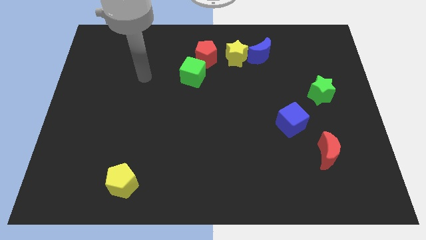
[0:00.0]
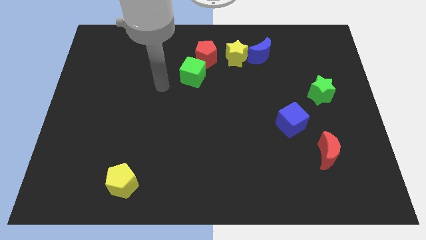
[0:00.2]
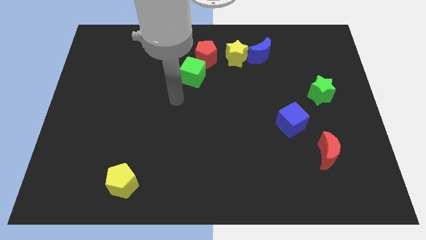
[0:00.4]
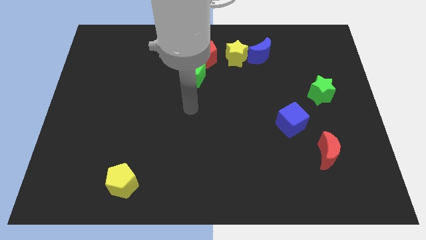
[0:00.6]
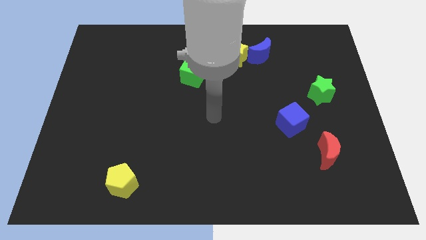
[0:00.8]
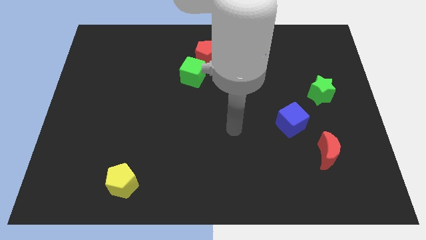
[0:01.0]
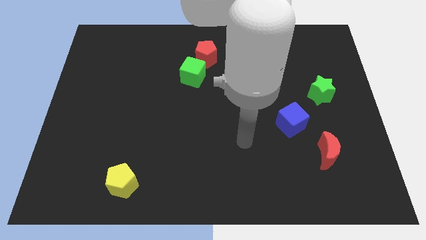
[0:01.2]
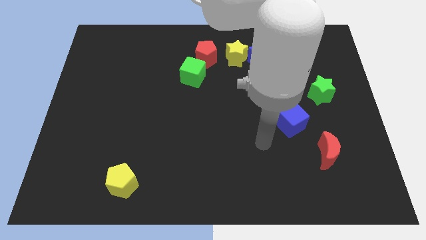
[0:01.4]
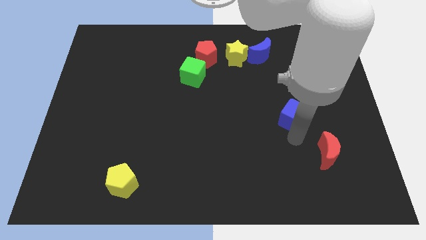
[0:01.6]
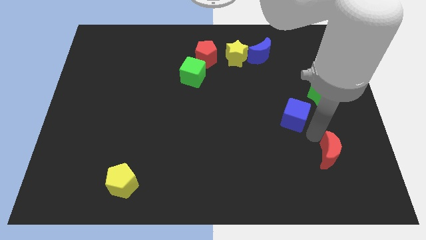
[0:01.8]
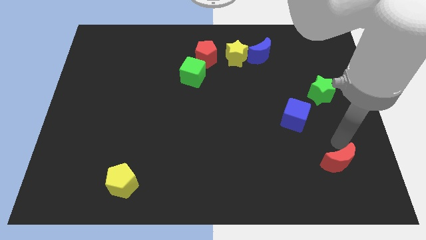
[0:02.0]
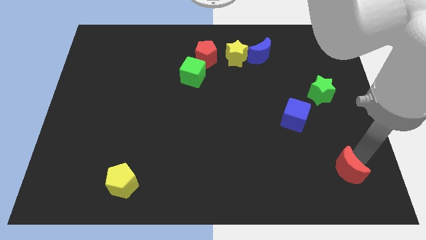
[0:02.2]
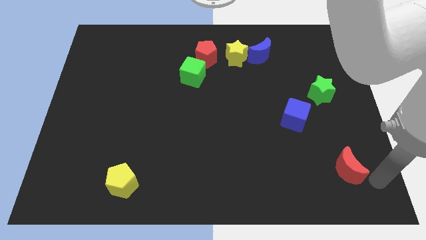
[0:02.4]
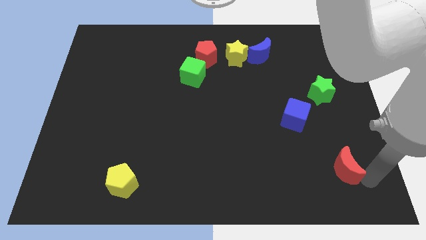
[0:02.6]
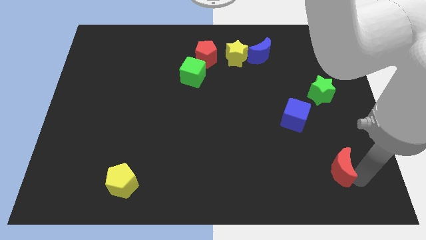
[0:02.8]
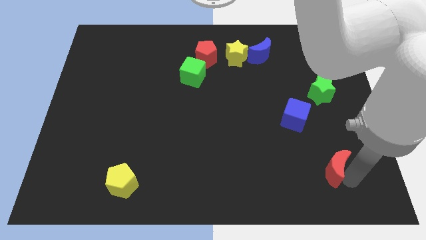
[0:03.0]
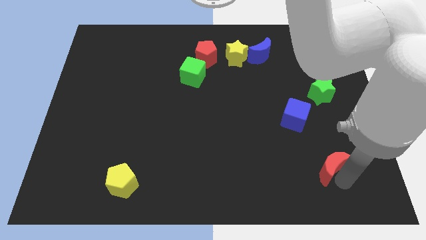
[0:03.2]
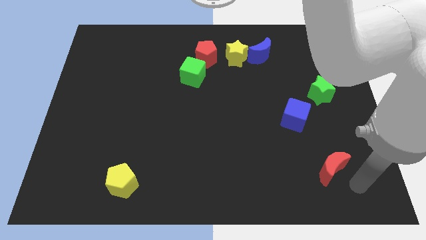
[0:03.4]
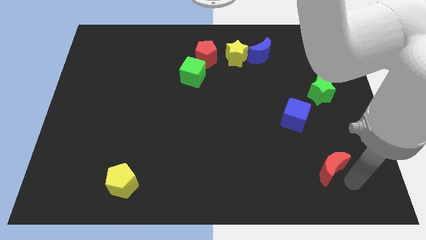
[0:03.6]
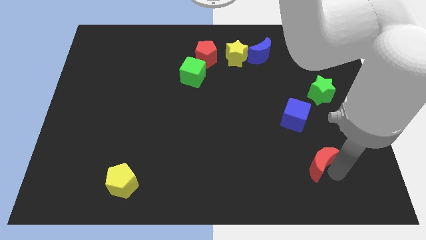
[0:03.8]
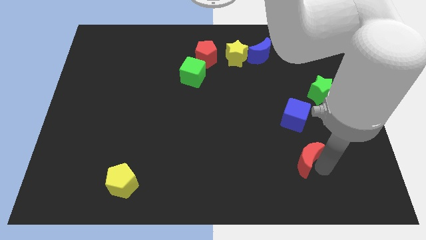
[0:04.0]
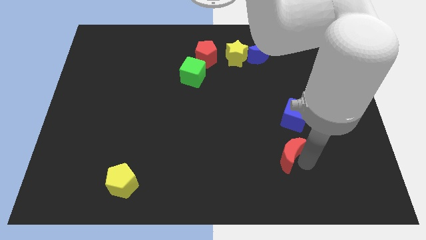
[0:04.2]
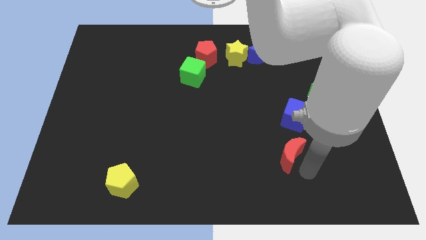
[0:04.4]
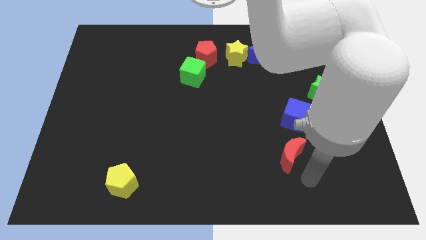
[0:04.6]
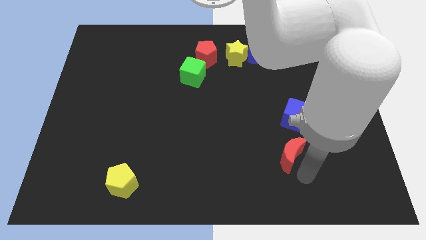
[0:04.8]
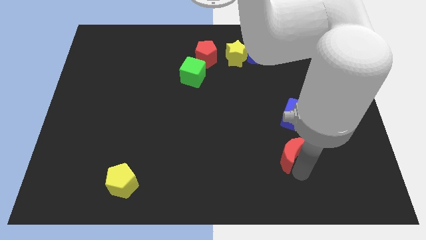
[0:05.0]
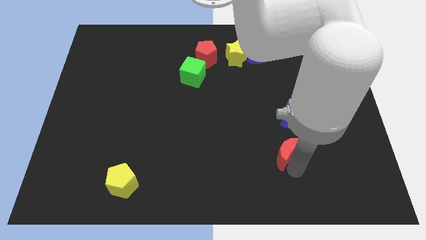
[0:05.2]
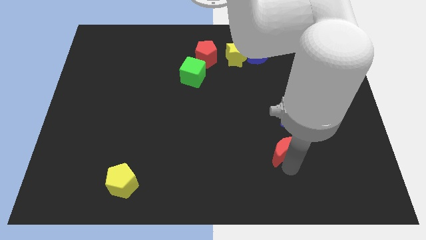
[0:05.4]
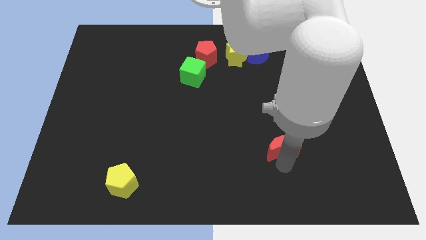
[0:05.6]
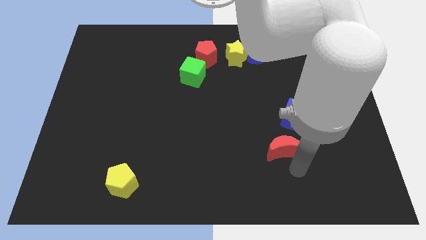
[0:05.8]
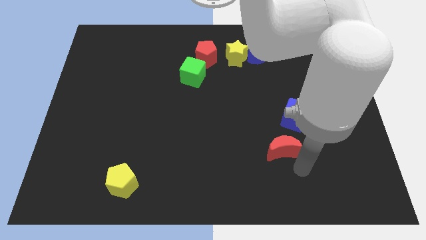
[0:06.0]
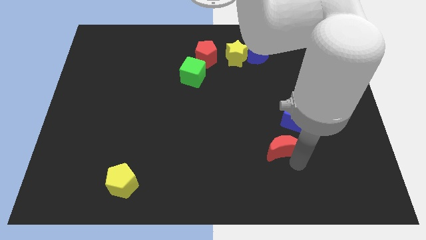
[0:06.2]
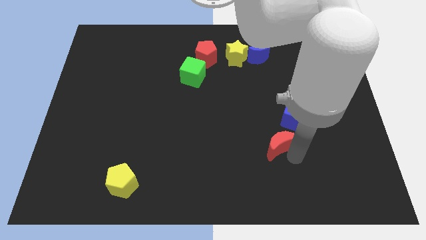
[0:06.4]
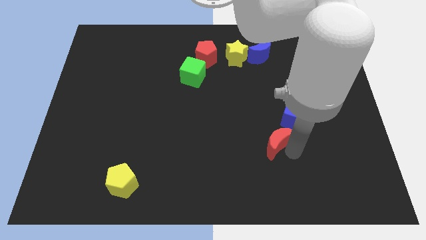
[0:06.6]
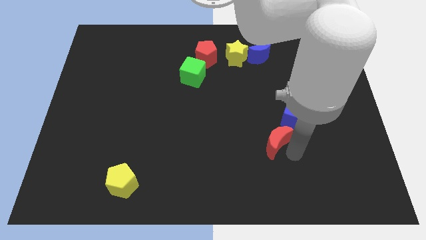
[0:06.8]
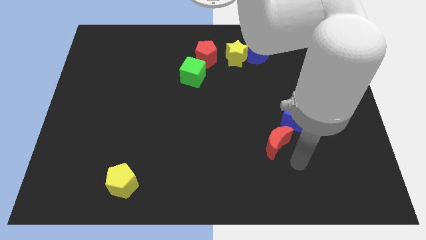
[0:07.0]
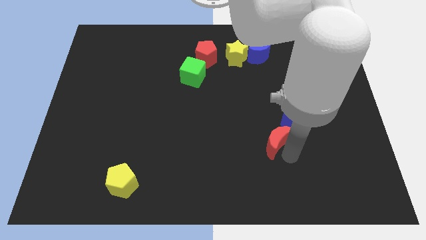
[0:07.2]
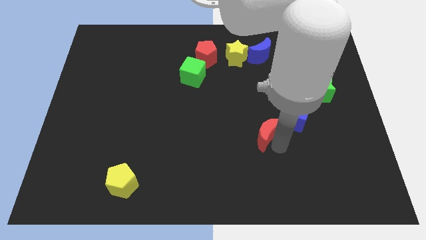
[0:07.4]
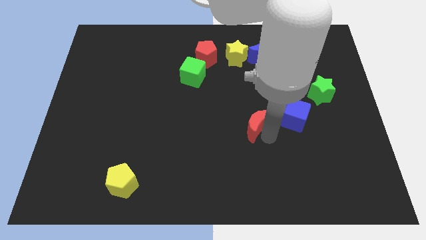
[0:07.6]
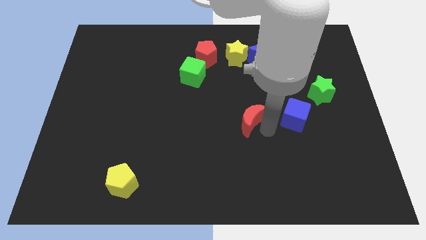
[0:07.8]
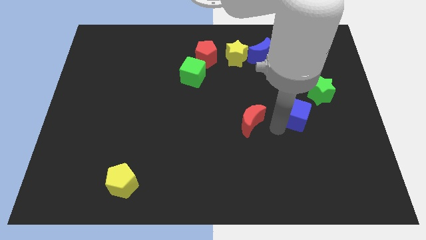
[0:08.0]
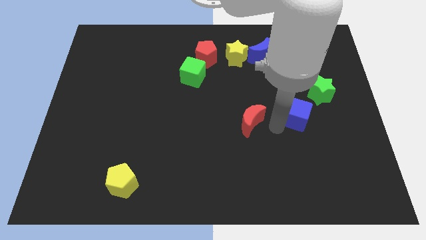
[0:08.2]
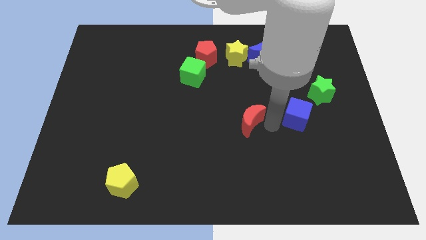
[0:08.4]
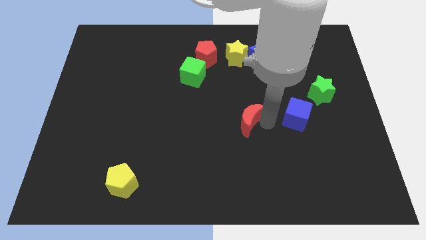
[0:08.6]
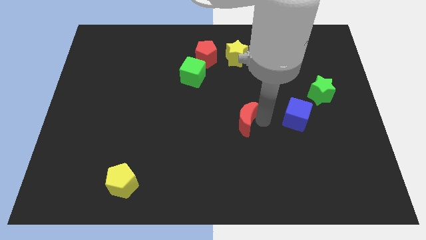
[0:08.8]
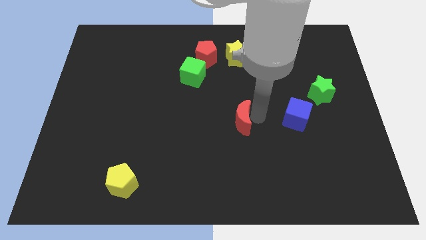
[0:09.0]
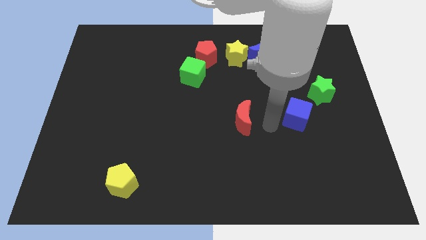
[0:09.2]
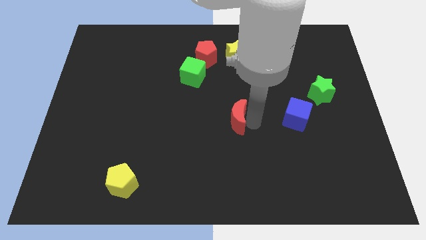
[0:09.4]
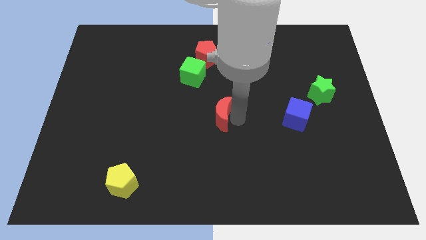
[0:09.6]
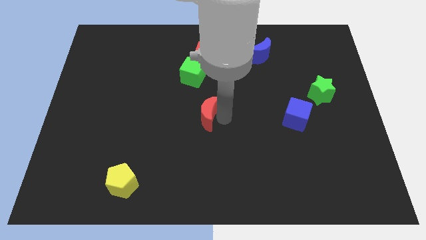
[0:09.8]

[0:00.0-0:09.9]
put the red moon below the green cube

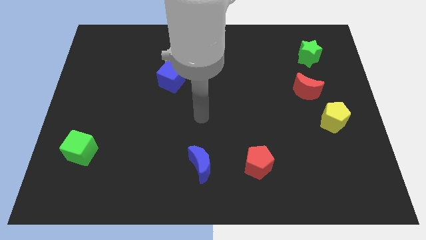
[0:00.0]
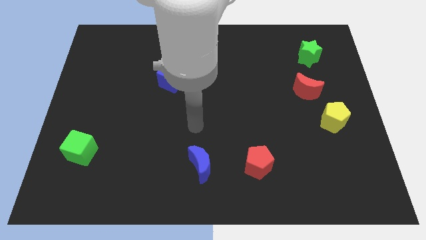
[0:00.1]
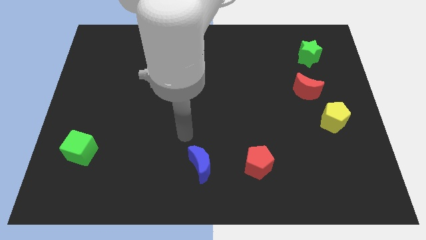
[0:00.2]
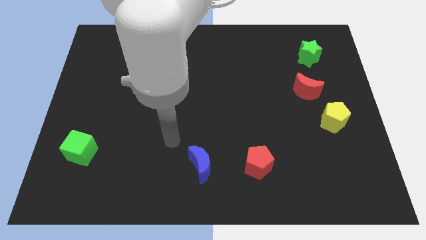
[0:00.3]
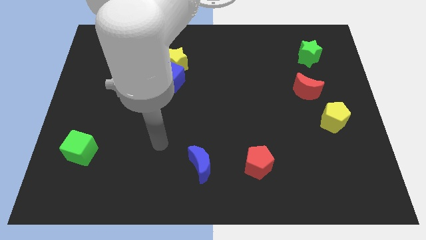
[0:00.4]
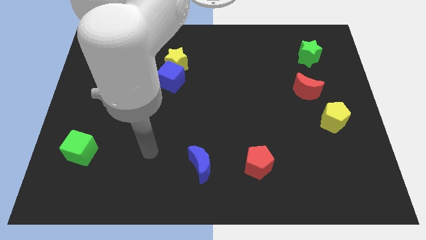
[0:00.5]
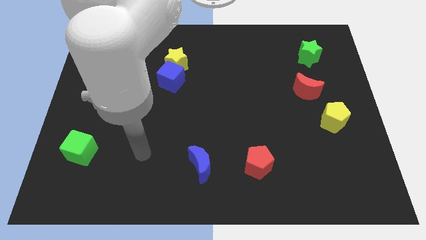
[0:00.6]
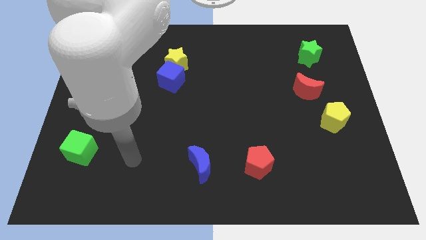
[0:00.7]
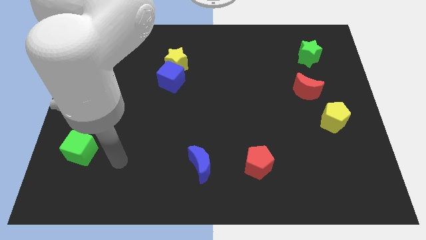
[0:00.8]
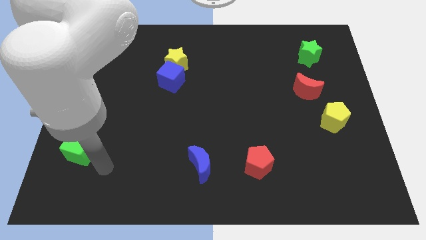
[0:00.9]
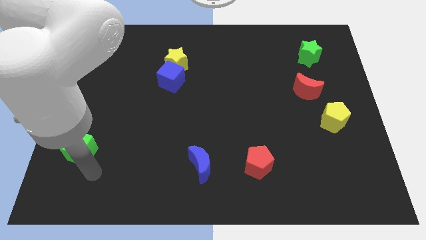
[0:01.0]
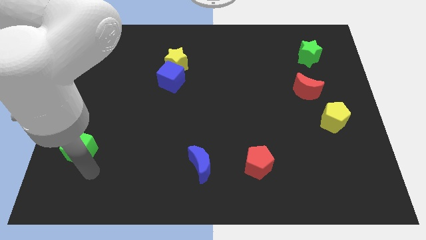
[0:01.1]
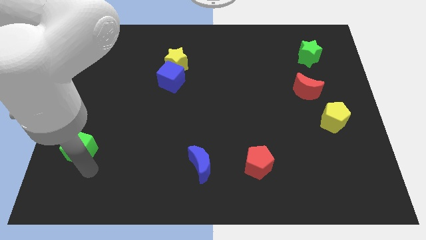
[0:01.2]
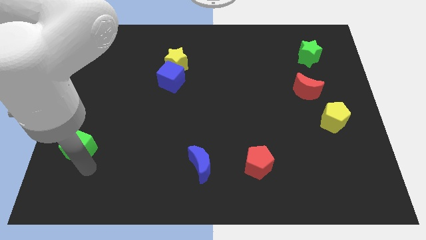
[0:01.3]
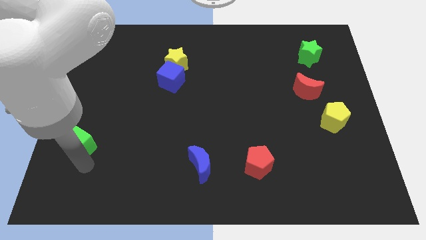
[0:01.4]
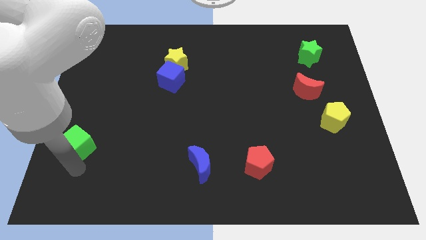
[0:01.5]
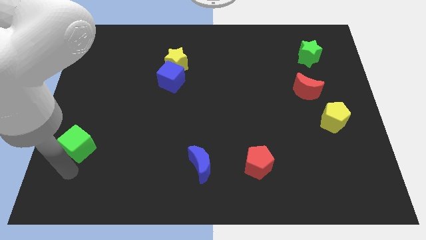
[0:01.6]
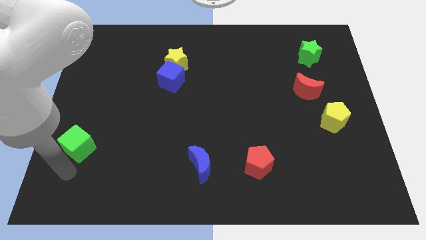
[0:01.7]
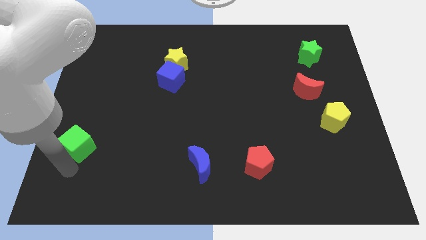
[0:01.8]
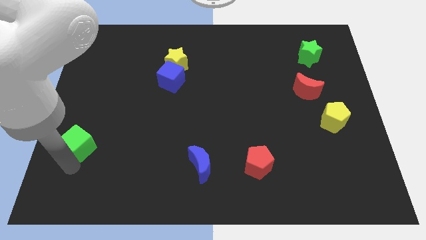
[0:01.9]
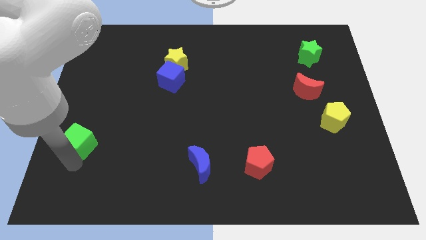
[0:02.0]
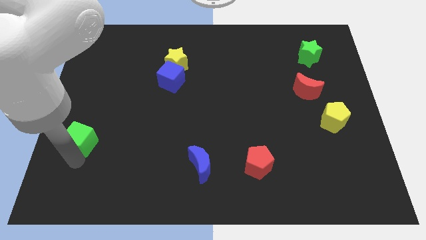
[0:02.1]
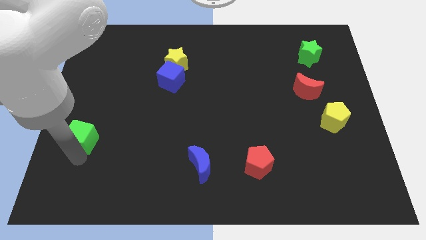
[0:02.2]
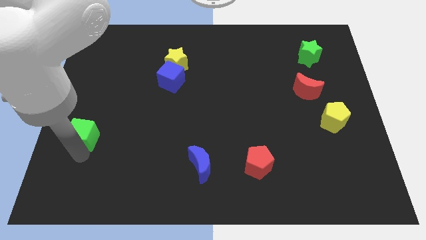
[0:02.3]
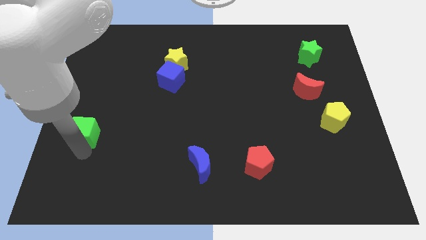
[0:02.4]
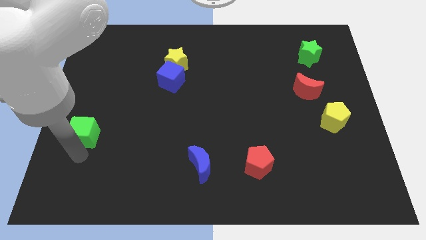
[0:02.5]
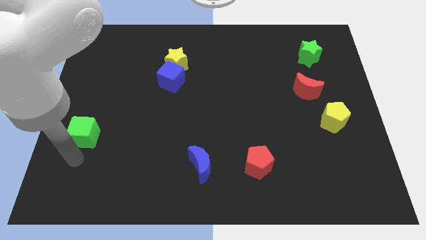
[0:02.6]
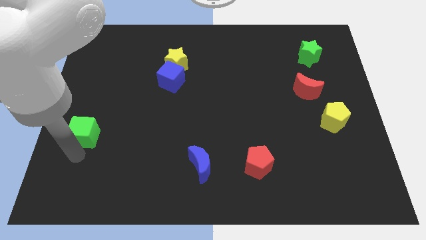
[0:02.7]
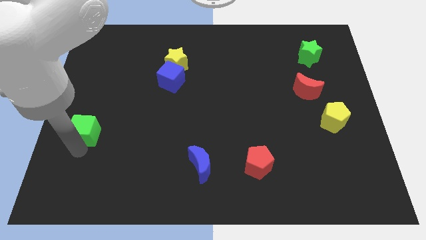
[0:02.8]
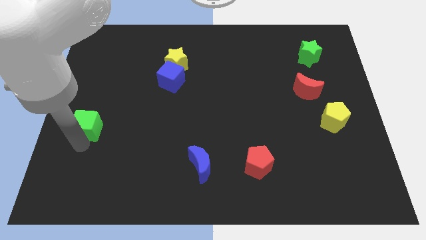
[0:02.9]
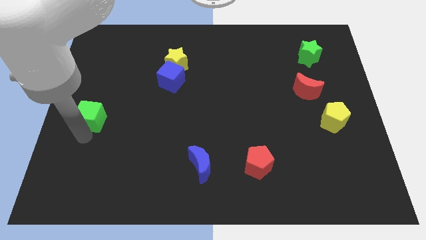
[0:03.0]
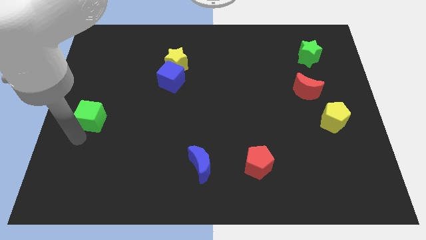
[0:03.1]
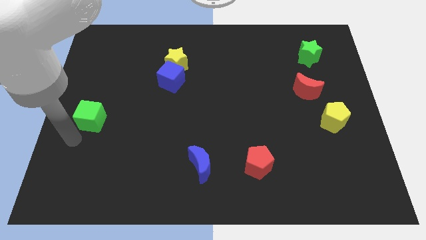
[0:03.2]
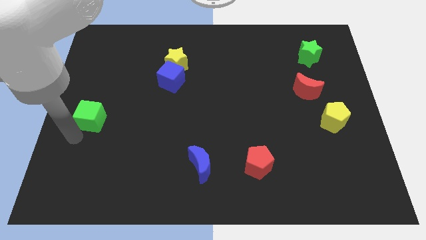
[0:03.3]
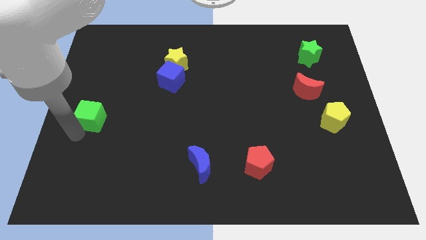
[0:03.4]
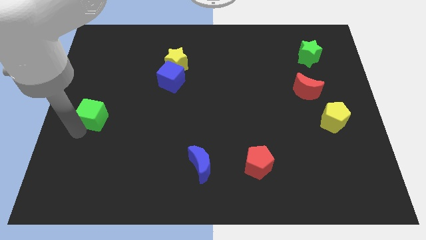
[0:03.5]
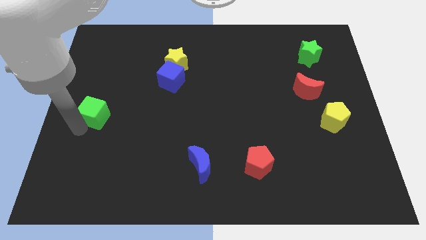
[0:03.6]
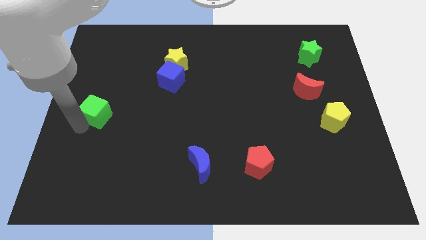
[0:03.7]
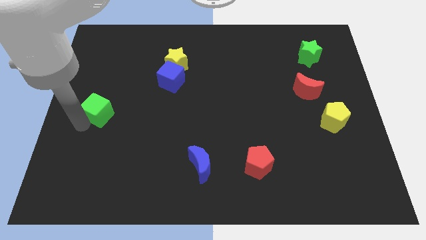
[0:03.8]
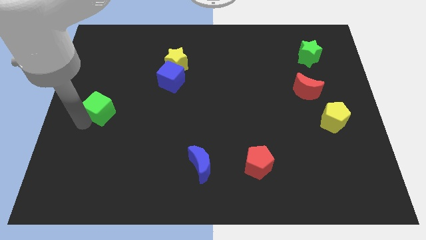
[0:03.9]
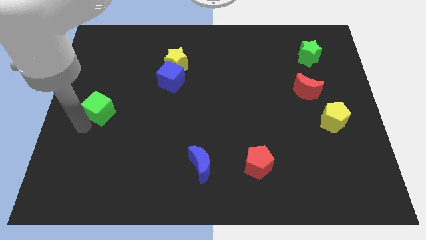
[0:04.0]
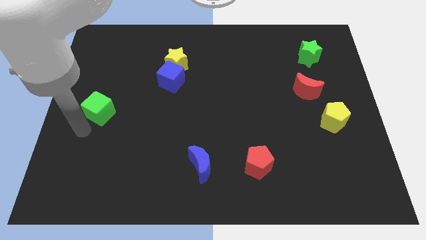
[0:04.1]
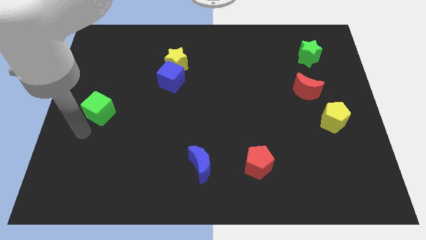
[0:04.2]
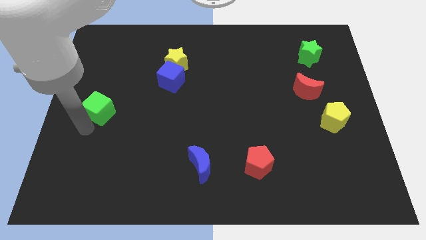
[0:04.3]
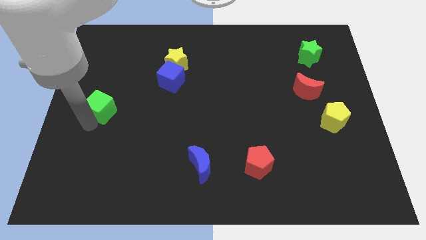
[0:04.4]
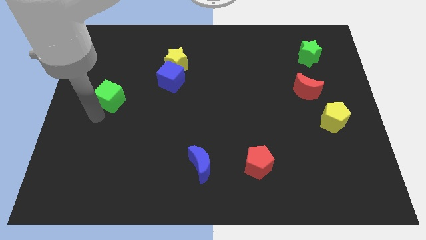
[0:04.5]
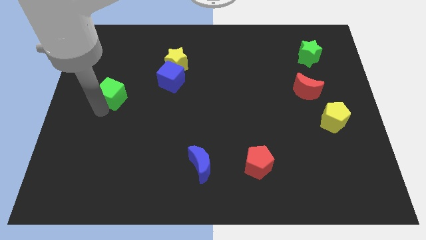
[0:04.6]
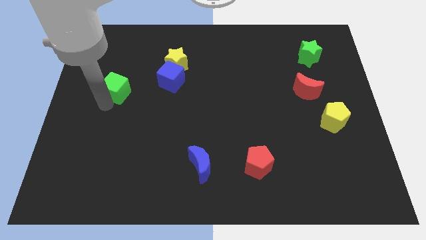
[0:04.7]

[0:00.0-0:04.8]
slide the green cube left of the blue cube
